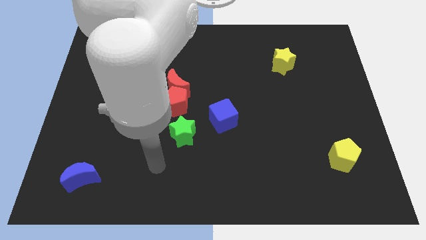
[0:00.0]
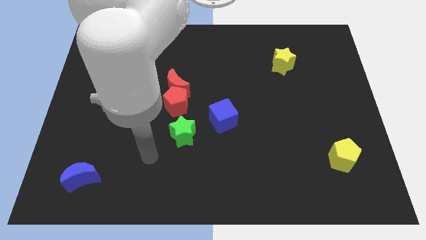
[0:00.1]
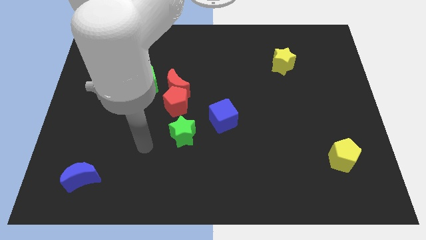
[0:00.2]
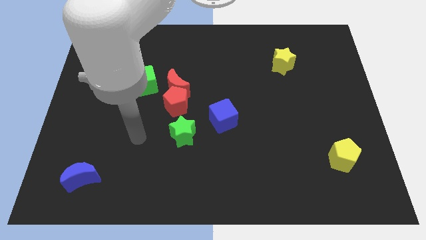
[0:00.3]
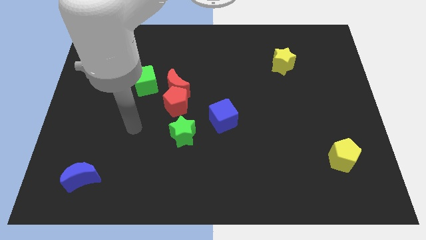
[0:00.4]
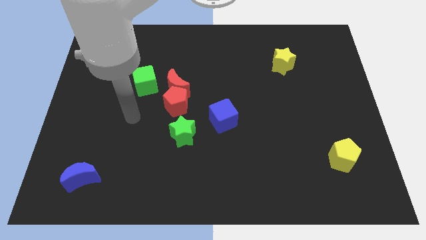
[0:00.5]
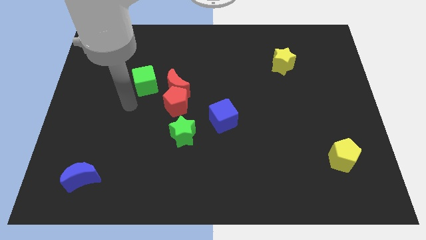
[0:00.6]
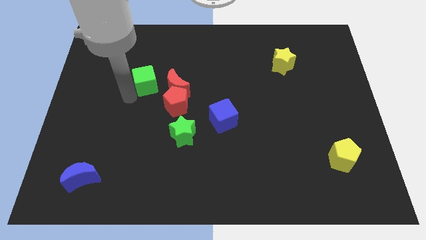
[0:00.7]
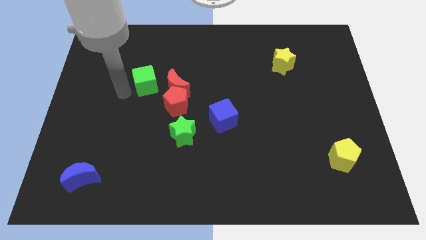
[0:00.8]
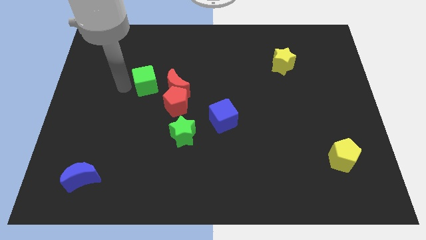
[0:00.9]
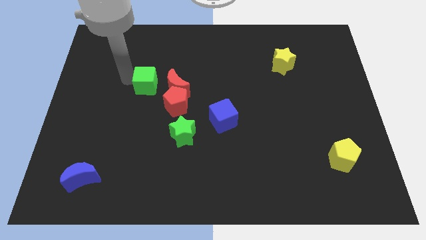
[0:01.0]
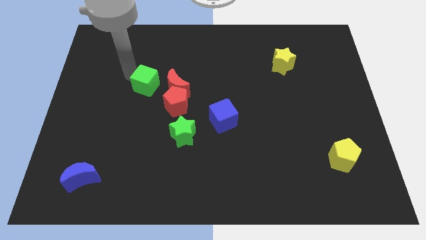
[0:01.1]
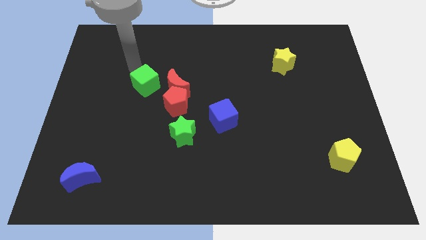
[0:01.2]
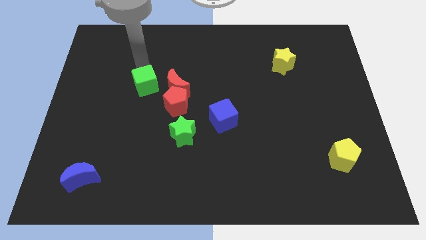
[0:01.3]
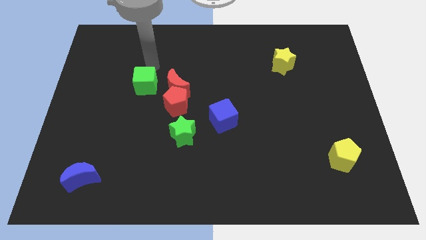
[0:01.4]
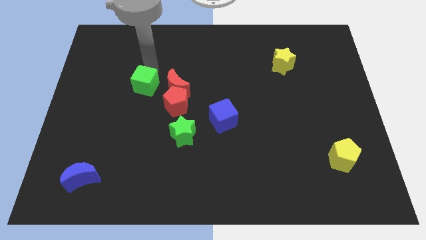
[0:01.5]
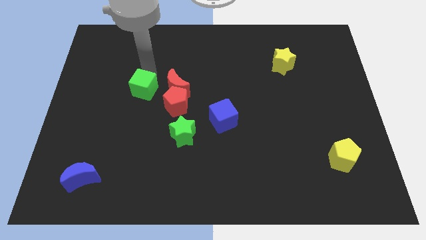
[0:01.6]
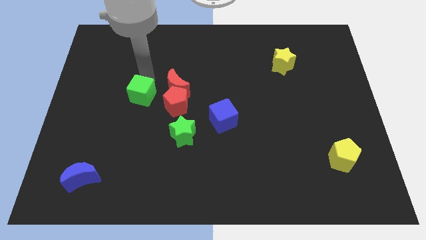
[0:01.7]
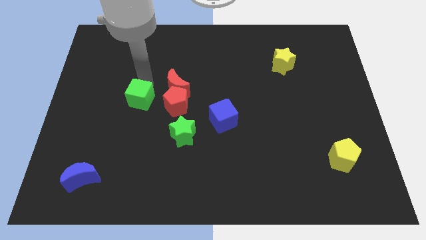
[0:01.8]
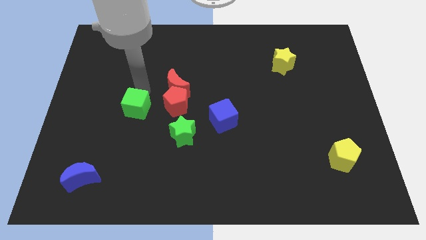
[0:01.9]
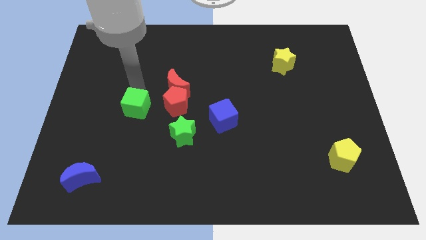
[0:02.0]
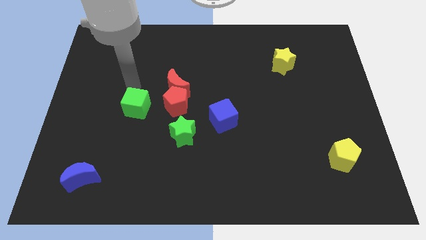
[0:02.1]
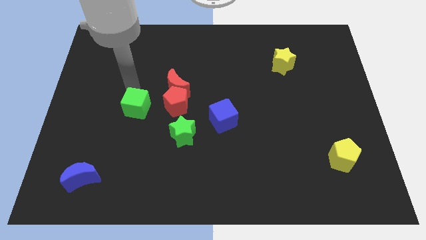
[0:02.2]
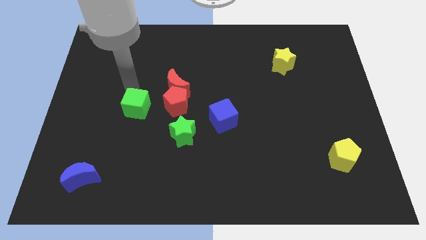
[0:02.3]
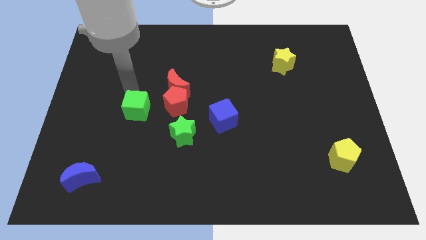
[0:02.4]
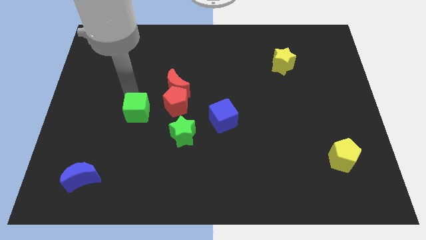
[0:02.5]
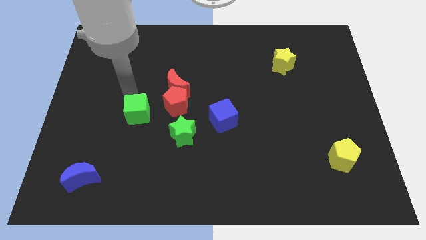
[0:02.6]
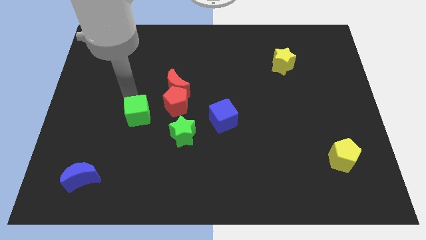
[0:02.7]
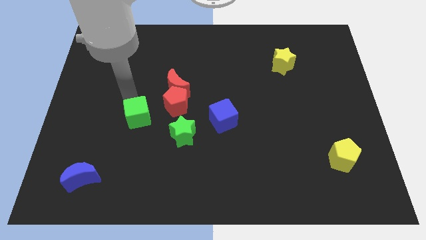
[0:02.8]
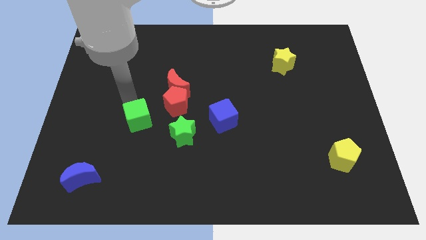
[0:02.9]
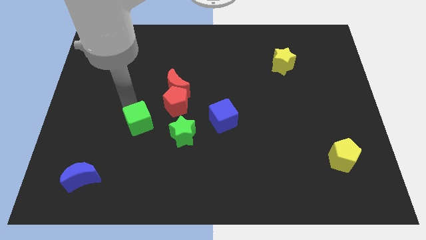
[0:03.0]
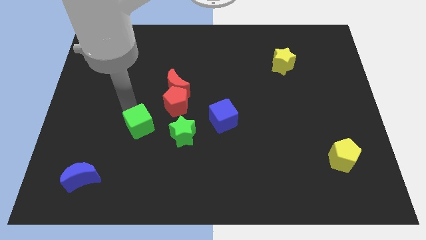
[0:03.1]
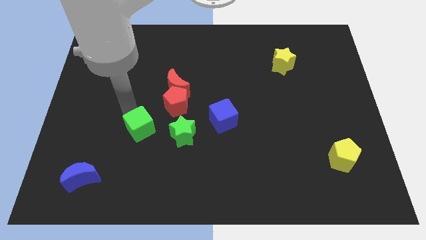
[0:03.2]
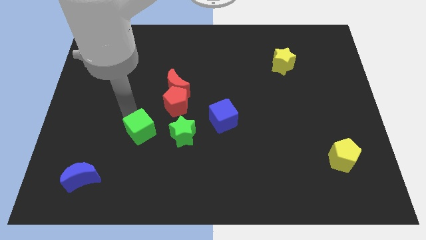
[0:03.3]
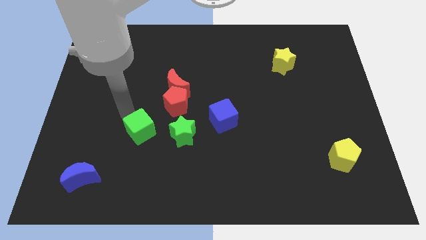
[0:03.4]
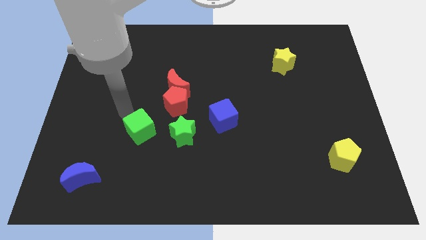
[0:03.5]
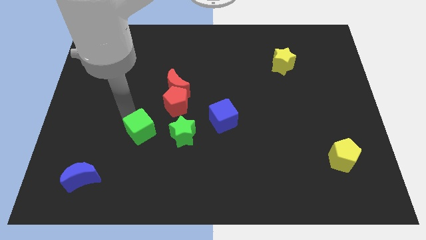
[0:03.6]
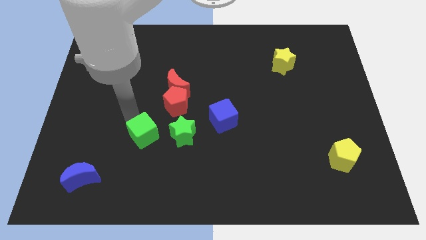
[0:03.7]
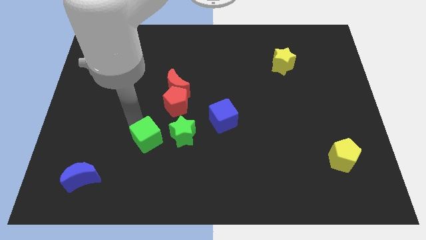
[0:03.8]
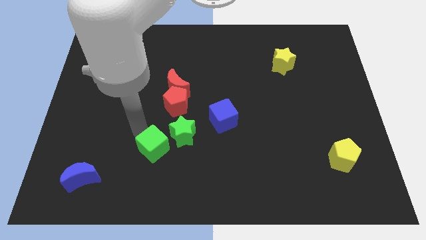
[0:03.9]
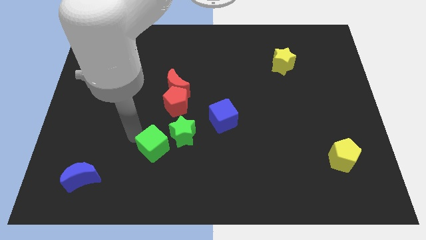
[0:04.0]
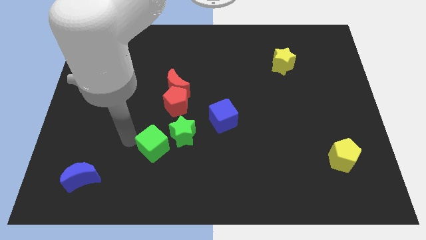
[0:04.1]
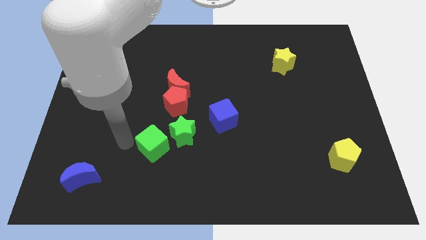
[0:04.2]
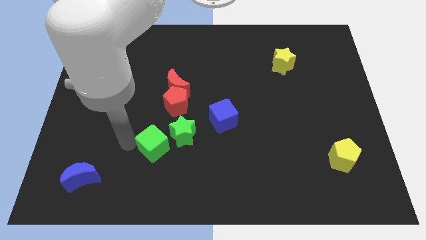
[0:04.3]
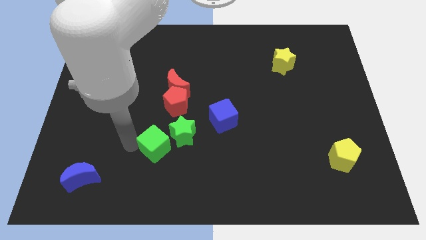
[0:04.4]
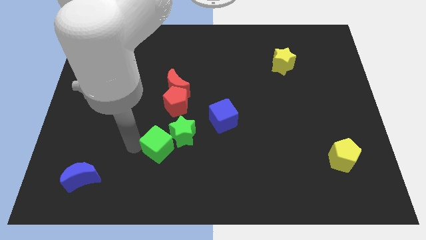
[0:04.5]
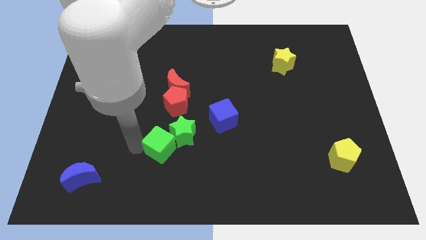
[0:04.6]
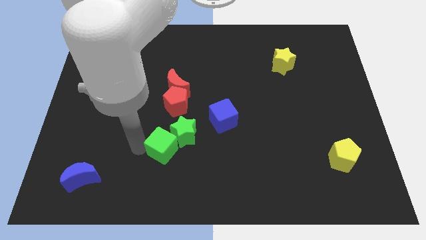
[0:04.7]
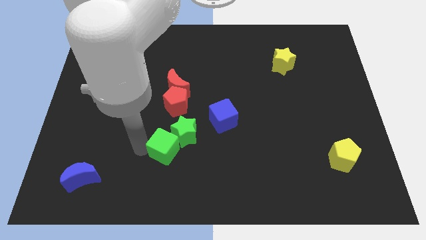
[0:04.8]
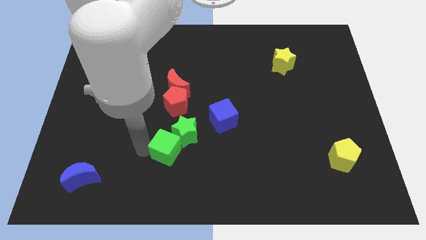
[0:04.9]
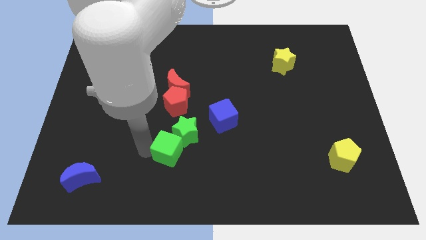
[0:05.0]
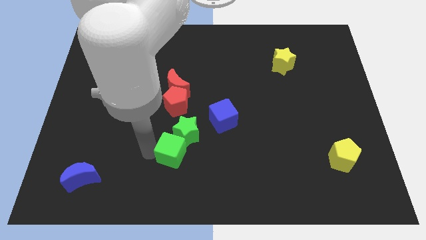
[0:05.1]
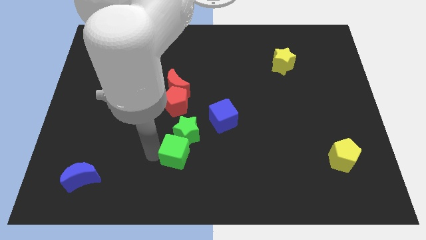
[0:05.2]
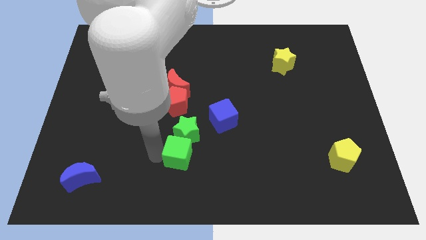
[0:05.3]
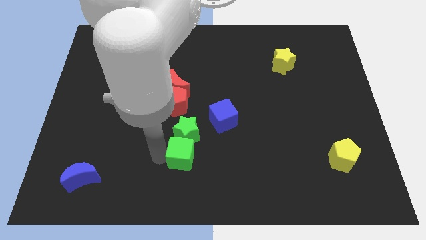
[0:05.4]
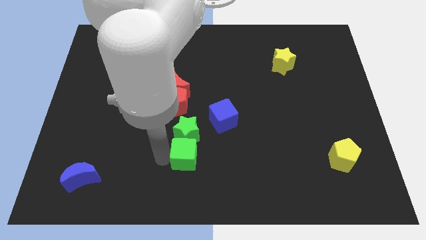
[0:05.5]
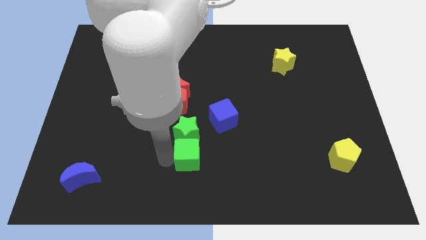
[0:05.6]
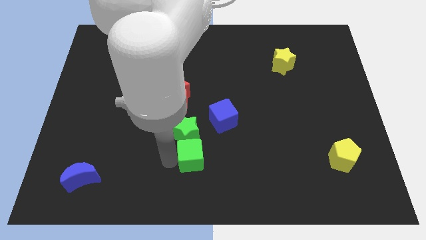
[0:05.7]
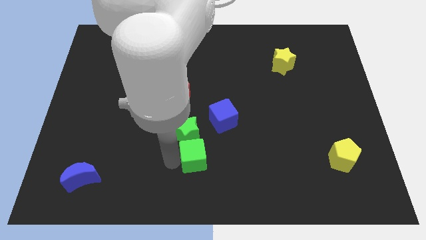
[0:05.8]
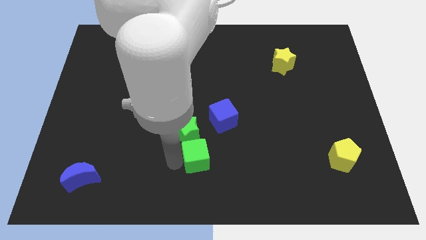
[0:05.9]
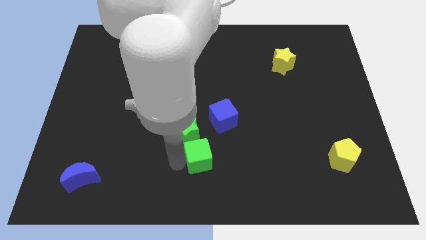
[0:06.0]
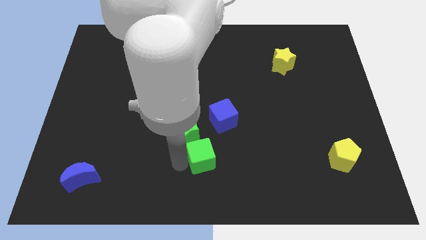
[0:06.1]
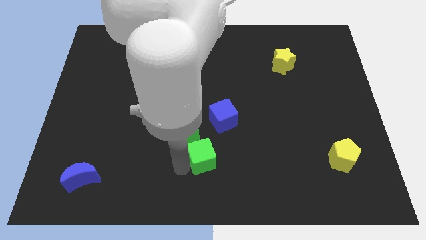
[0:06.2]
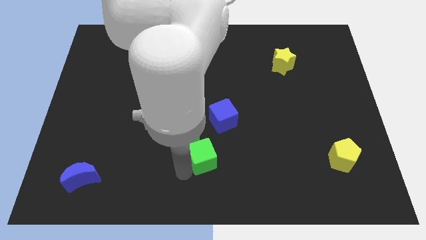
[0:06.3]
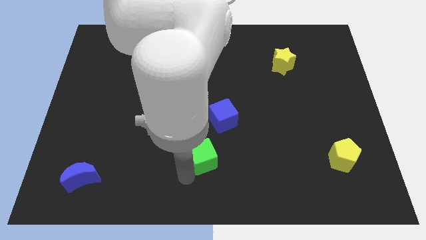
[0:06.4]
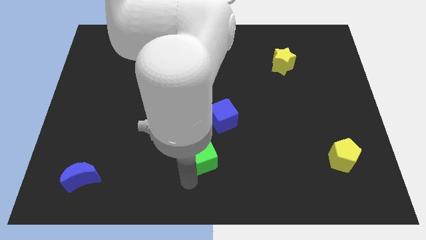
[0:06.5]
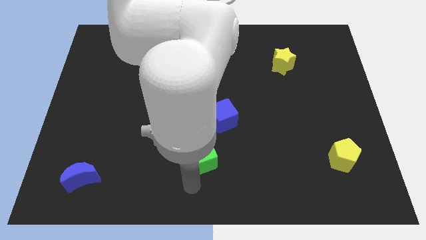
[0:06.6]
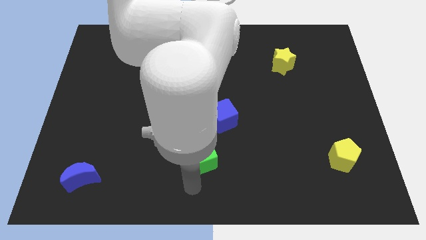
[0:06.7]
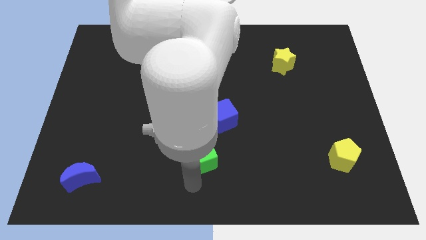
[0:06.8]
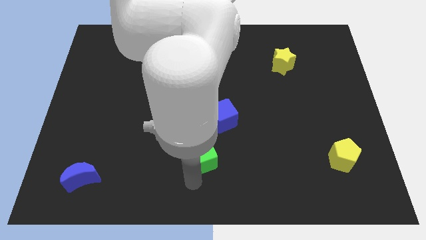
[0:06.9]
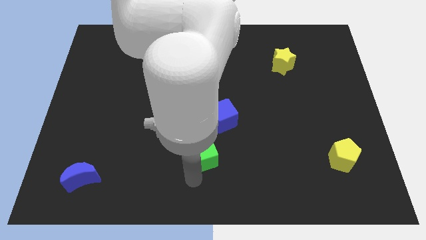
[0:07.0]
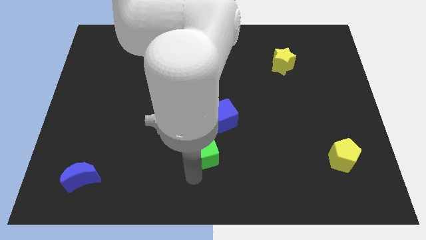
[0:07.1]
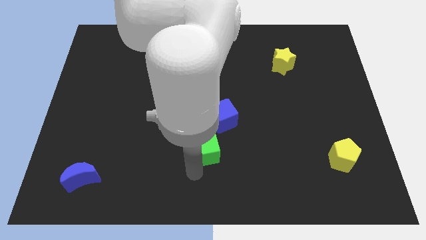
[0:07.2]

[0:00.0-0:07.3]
put the green cube to the right side of the green star

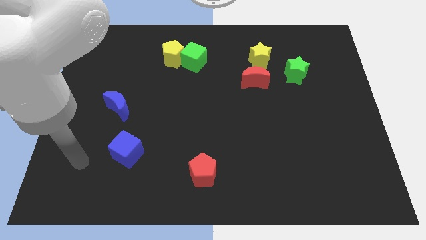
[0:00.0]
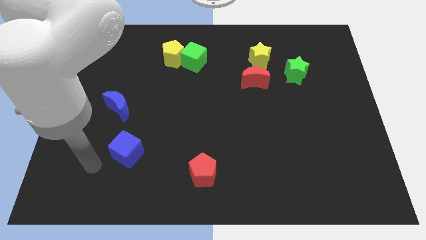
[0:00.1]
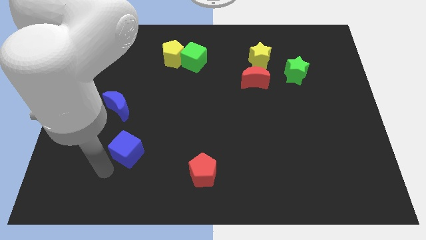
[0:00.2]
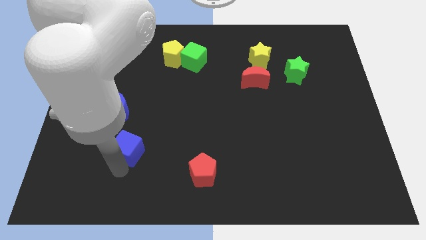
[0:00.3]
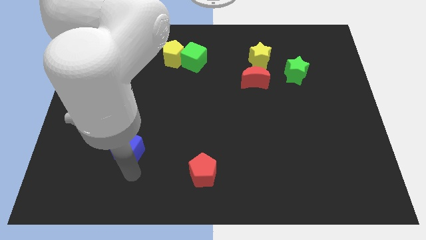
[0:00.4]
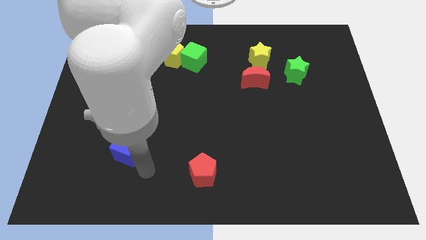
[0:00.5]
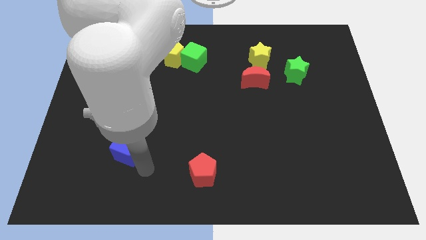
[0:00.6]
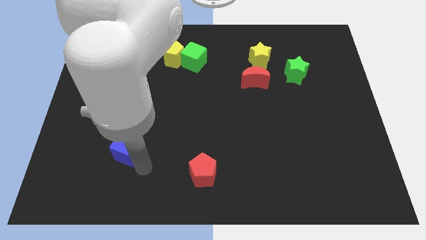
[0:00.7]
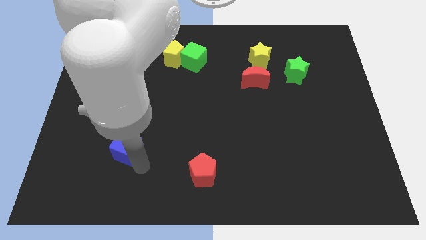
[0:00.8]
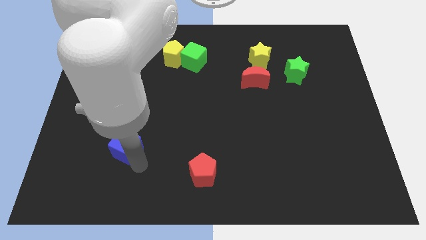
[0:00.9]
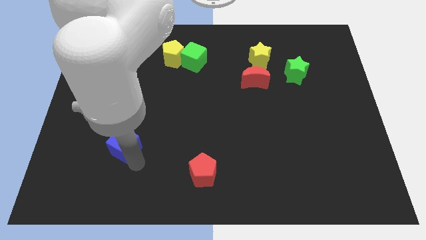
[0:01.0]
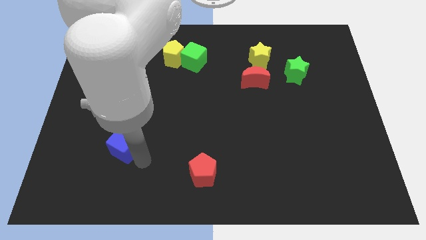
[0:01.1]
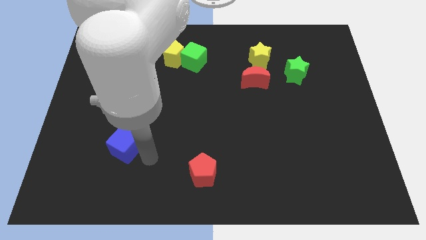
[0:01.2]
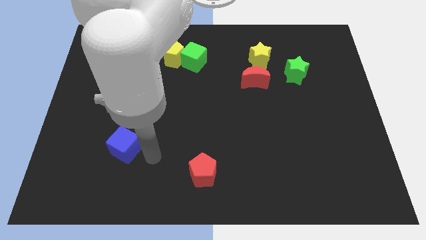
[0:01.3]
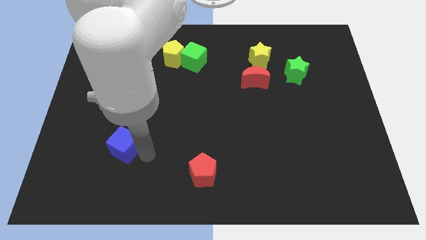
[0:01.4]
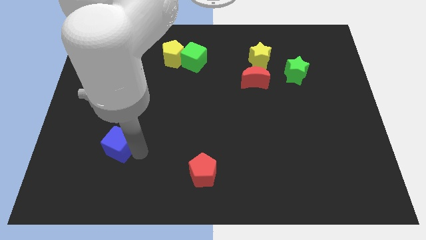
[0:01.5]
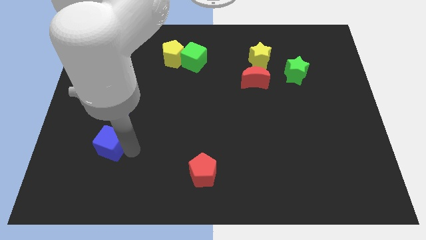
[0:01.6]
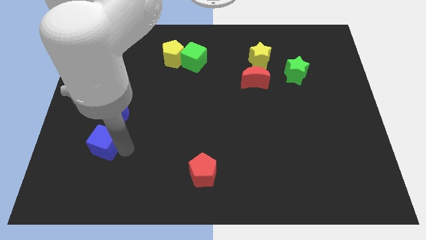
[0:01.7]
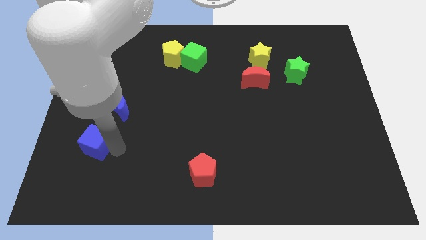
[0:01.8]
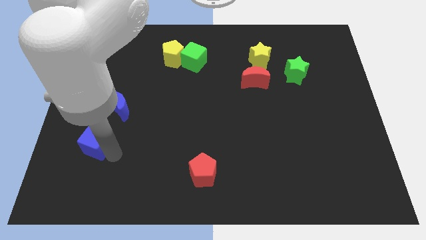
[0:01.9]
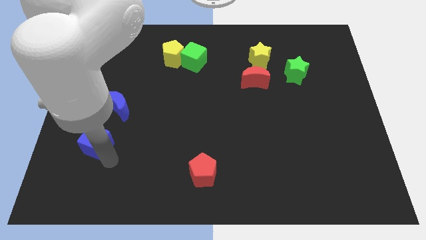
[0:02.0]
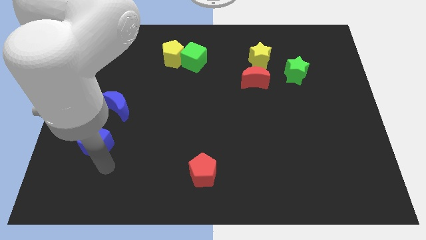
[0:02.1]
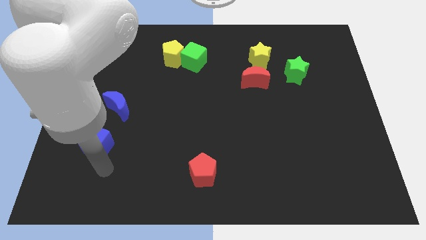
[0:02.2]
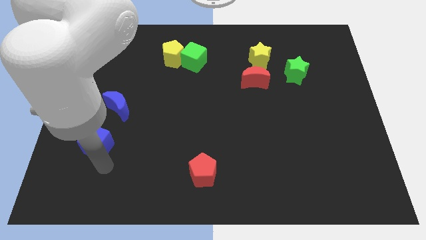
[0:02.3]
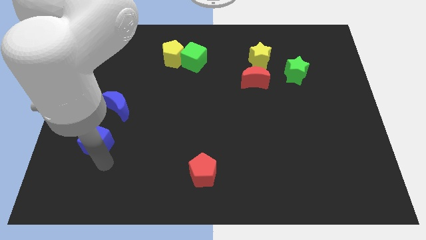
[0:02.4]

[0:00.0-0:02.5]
put the blue cube to the bottom left of the blue moon
